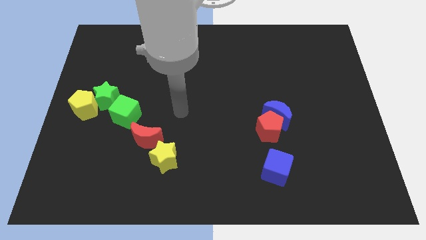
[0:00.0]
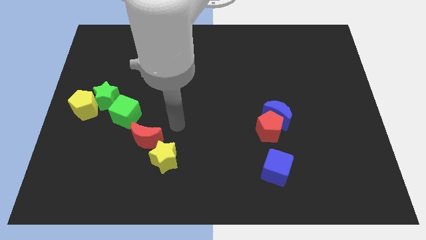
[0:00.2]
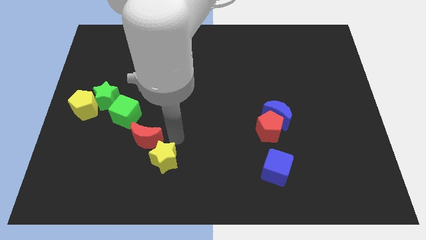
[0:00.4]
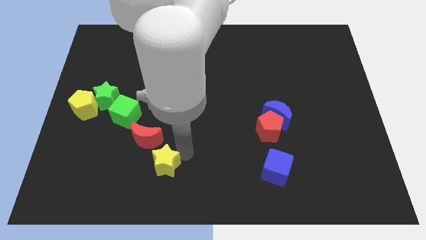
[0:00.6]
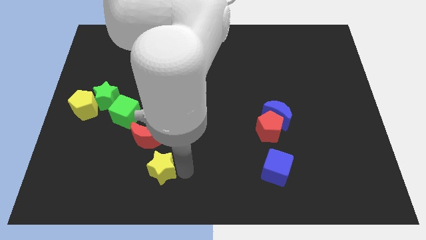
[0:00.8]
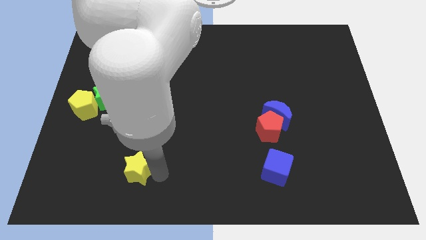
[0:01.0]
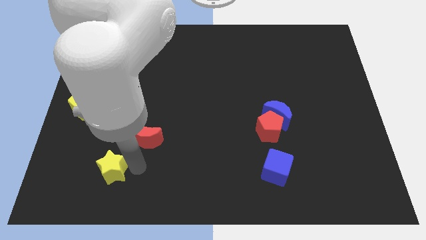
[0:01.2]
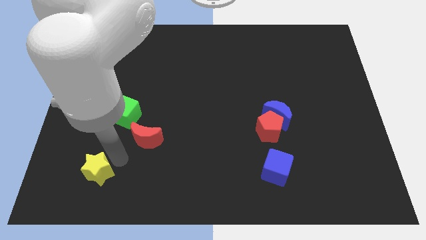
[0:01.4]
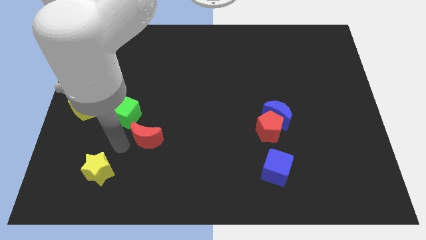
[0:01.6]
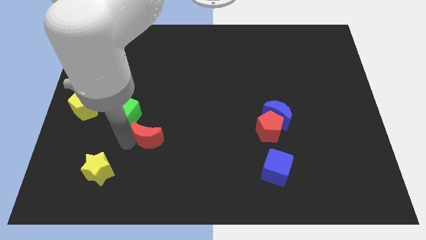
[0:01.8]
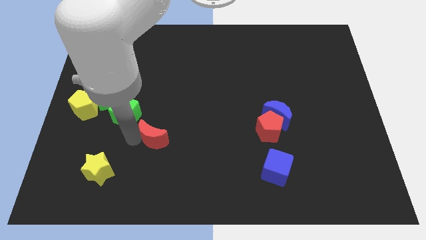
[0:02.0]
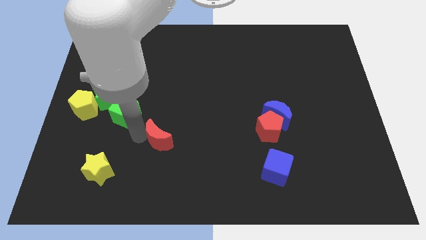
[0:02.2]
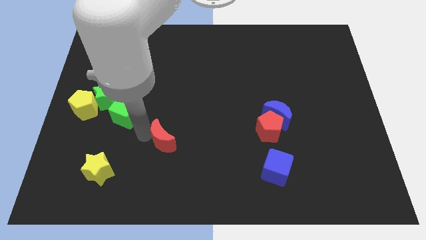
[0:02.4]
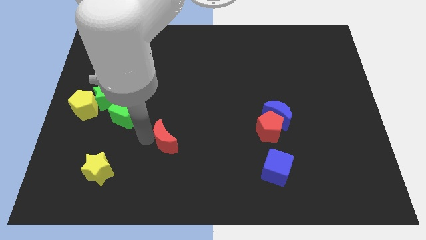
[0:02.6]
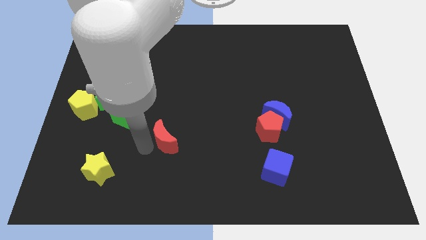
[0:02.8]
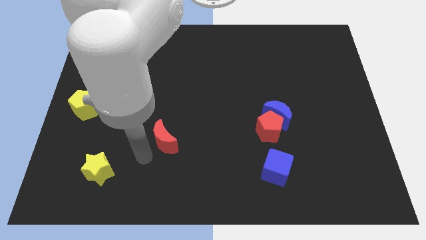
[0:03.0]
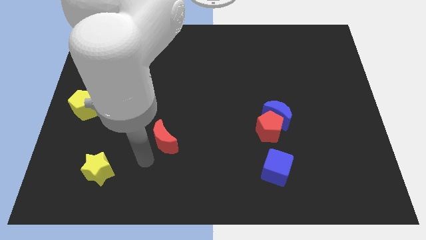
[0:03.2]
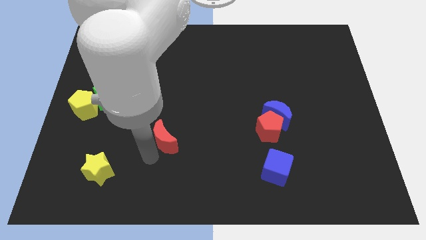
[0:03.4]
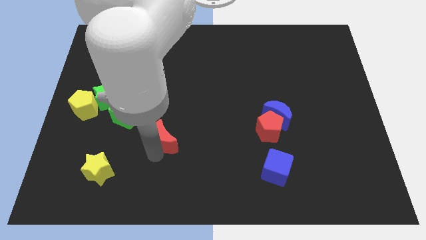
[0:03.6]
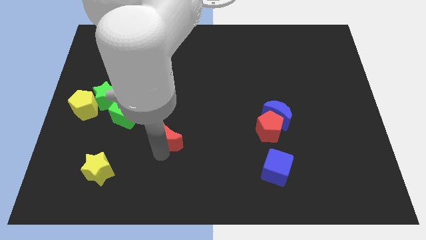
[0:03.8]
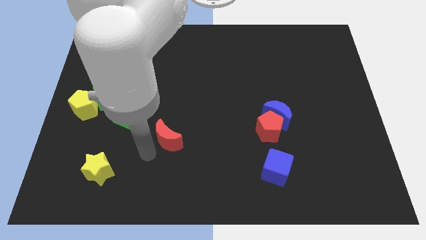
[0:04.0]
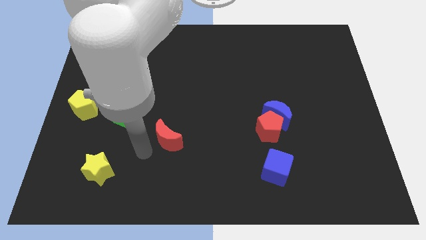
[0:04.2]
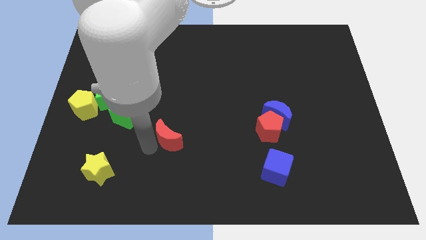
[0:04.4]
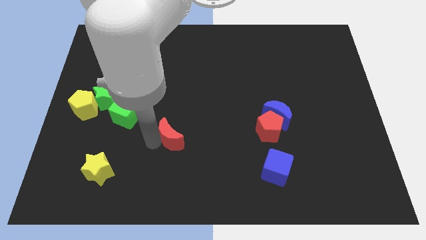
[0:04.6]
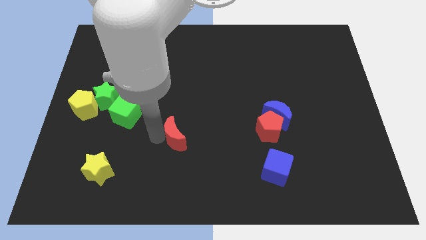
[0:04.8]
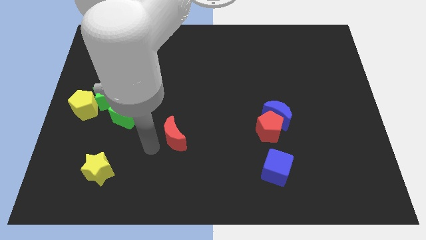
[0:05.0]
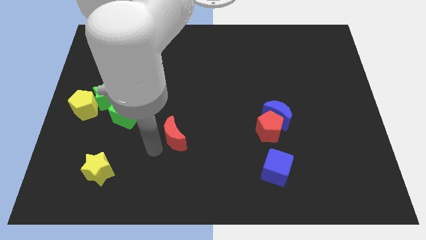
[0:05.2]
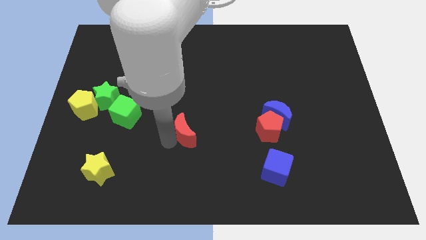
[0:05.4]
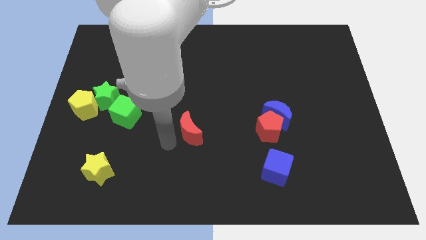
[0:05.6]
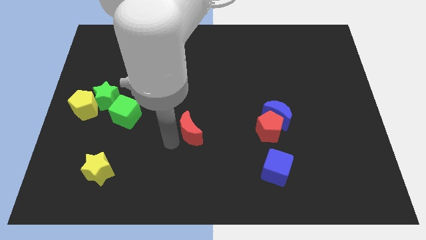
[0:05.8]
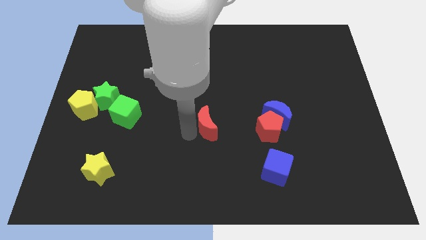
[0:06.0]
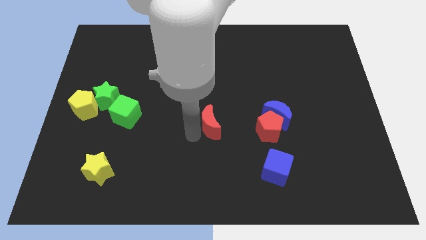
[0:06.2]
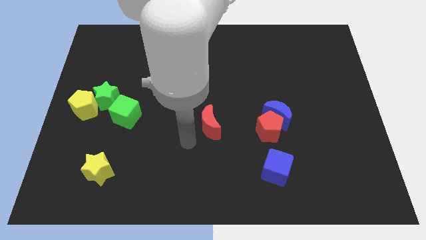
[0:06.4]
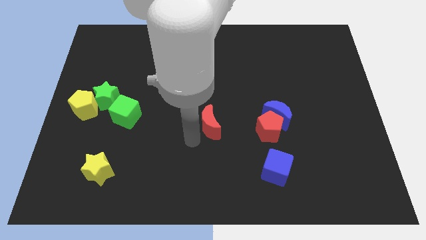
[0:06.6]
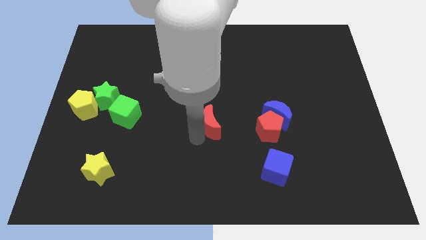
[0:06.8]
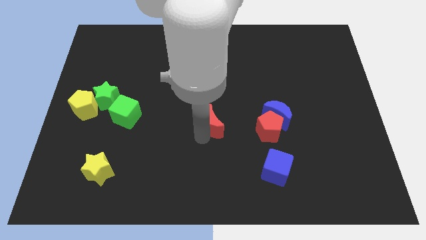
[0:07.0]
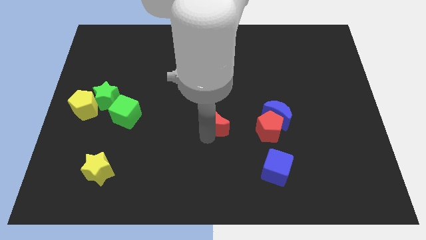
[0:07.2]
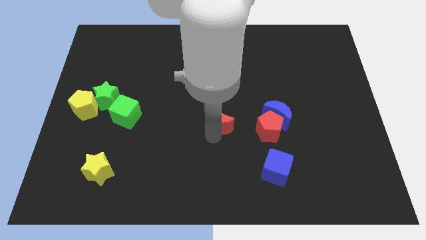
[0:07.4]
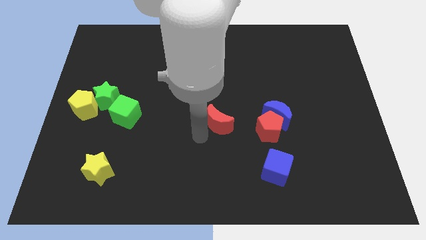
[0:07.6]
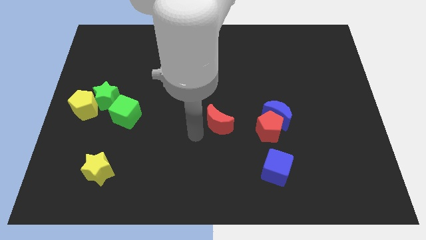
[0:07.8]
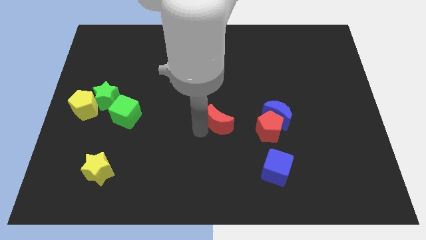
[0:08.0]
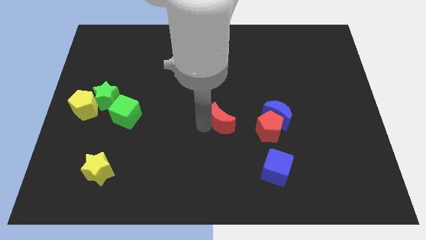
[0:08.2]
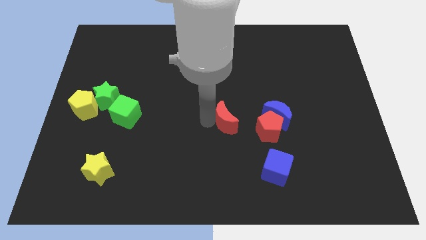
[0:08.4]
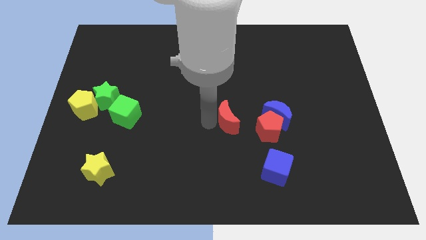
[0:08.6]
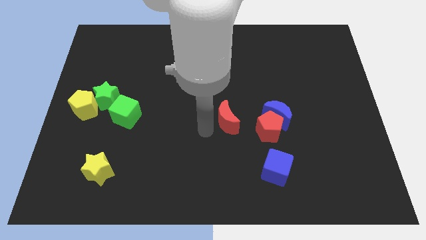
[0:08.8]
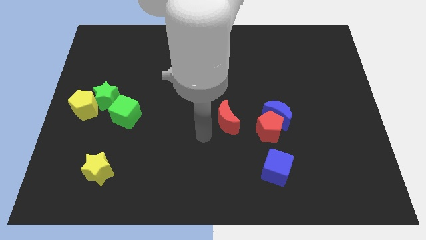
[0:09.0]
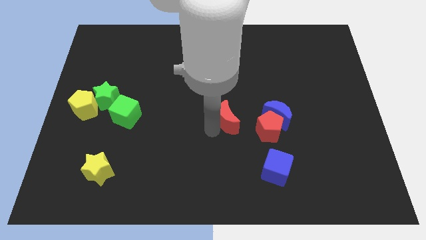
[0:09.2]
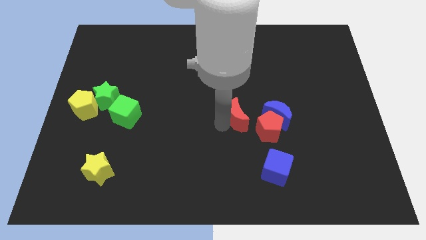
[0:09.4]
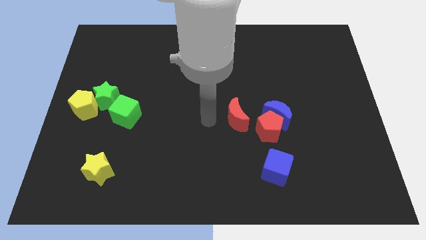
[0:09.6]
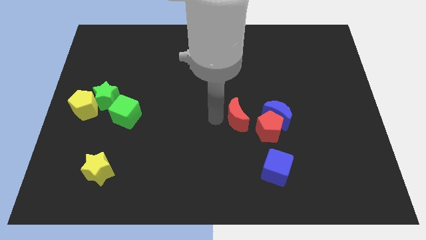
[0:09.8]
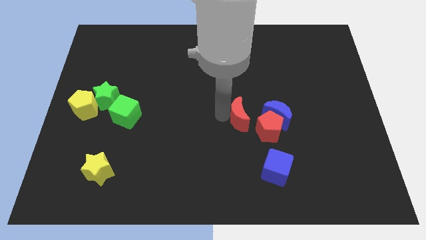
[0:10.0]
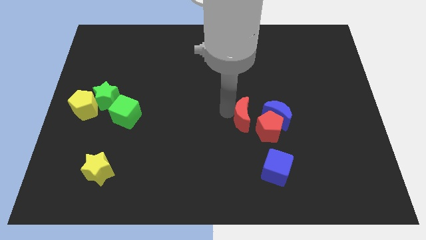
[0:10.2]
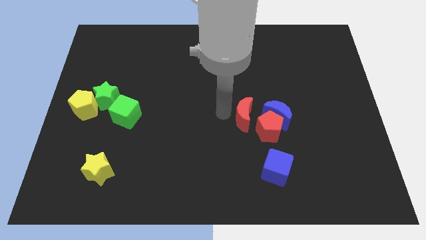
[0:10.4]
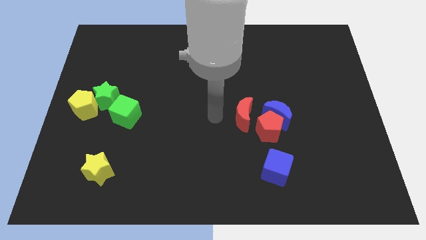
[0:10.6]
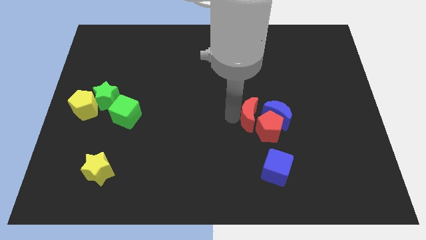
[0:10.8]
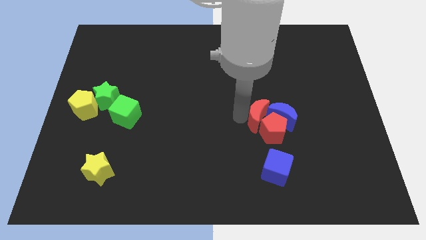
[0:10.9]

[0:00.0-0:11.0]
push the red moon towards the blue moon

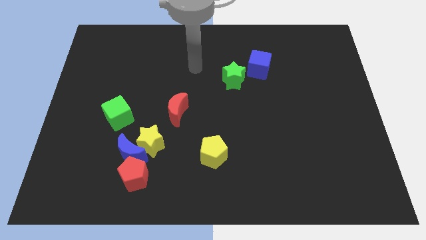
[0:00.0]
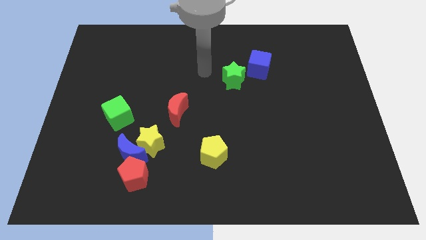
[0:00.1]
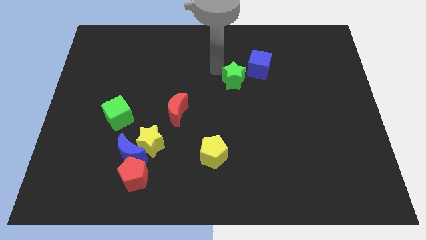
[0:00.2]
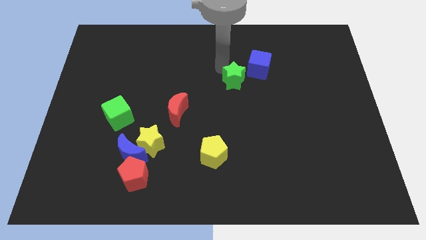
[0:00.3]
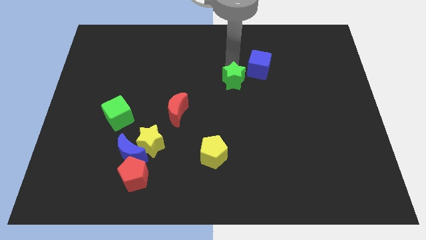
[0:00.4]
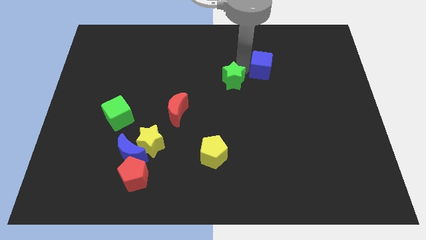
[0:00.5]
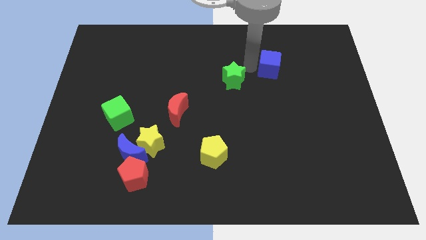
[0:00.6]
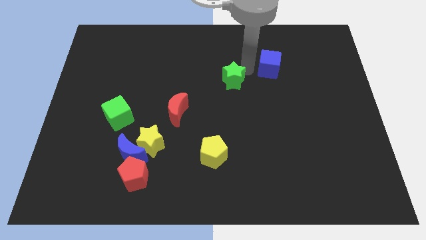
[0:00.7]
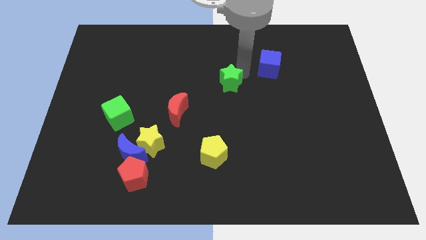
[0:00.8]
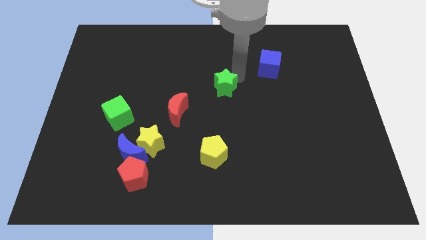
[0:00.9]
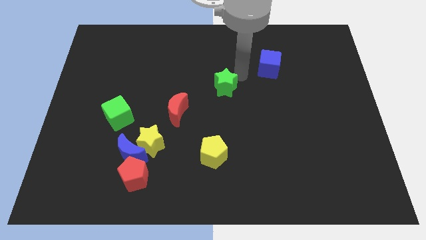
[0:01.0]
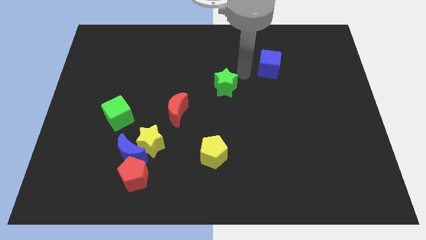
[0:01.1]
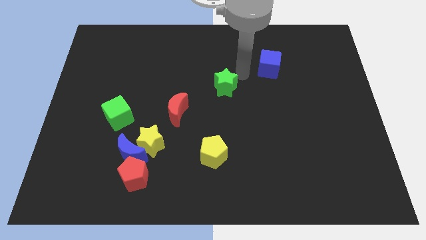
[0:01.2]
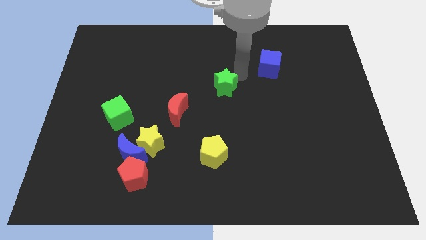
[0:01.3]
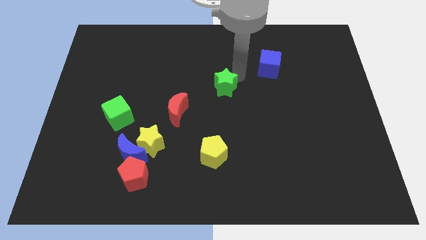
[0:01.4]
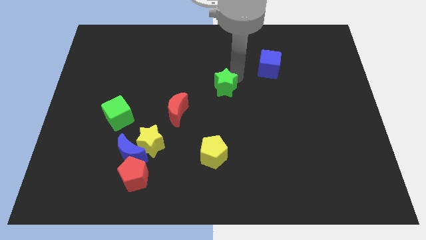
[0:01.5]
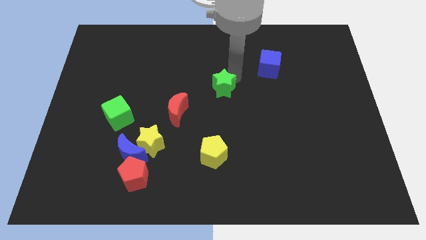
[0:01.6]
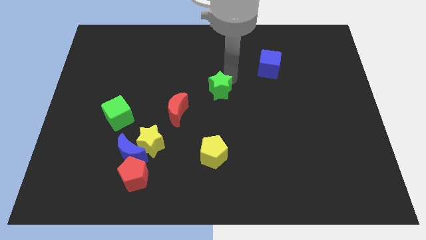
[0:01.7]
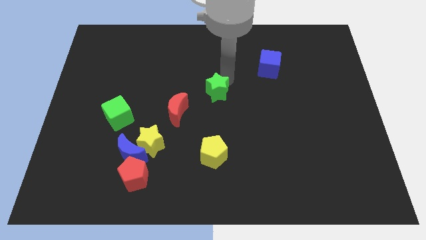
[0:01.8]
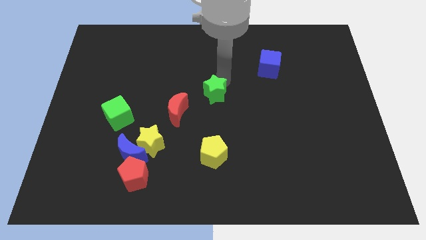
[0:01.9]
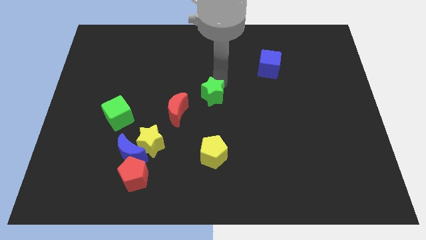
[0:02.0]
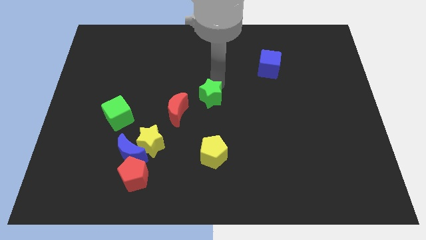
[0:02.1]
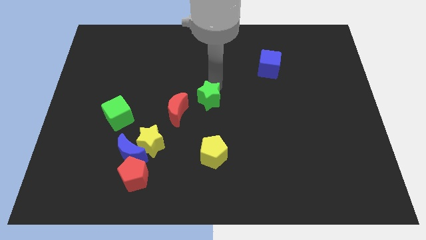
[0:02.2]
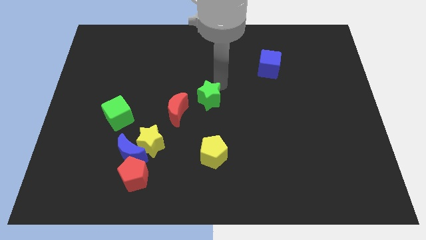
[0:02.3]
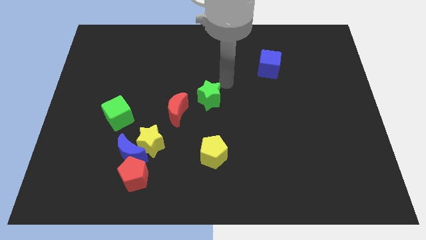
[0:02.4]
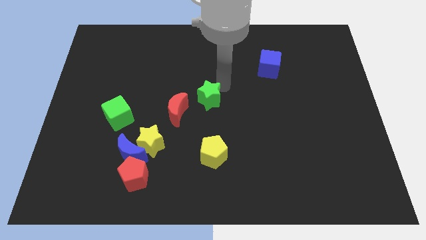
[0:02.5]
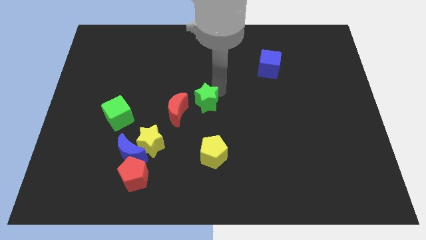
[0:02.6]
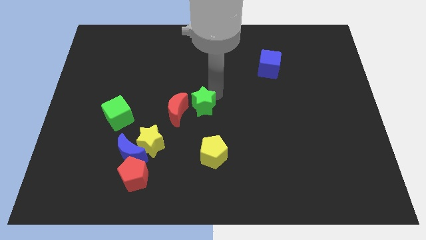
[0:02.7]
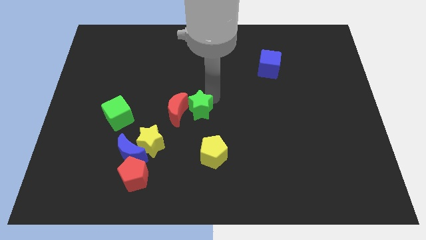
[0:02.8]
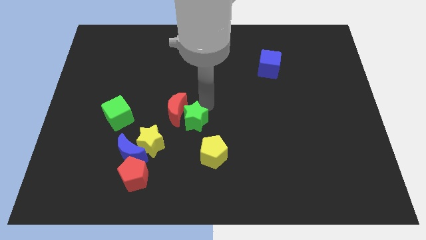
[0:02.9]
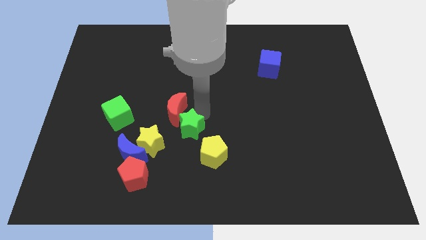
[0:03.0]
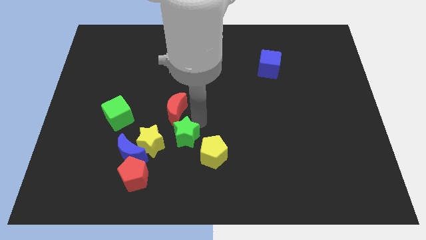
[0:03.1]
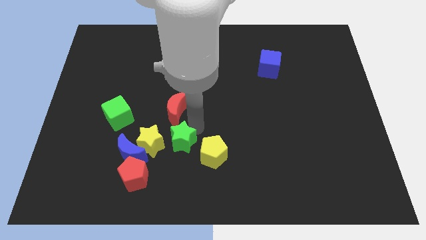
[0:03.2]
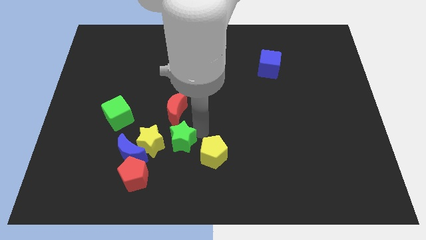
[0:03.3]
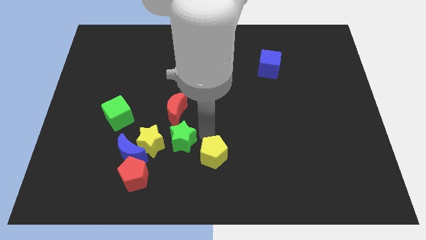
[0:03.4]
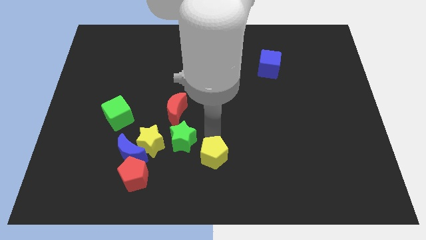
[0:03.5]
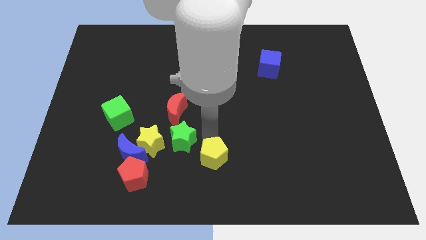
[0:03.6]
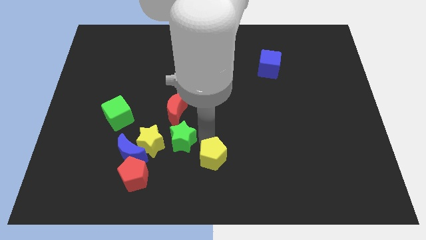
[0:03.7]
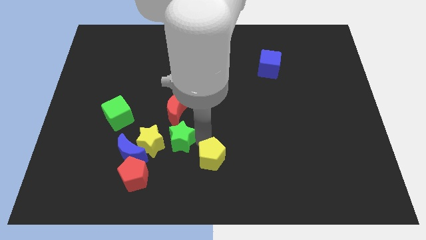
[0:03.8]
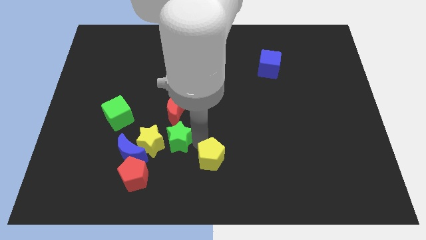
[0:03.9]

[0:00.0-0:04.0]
put the green star towards the yellow star
